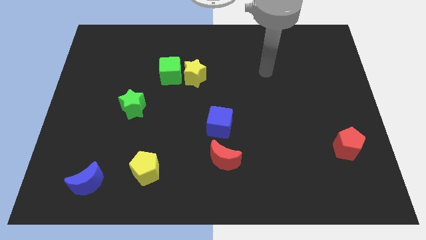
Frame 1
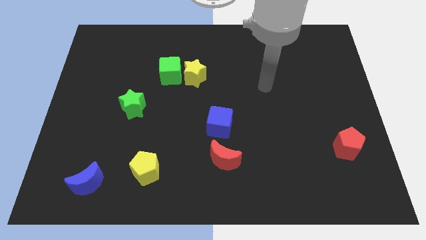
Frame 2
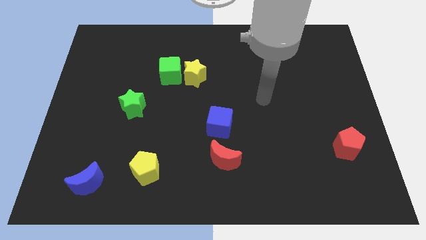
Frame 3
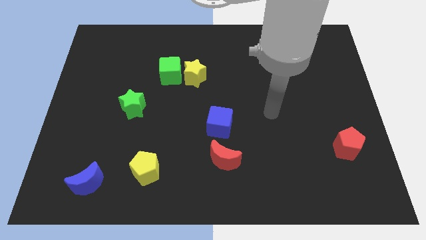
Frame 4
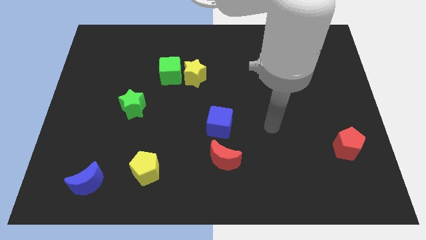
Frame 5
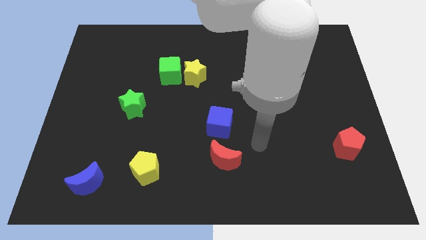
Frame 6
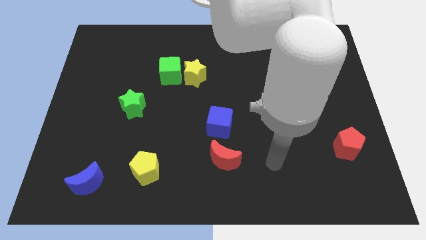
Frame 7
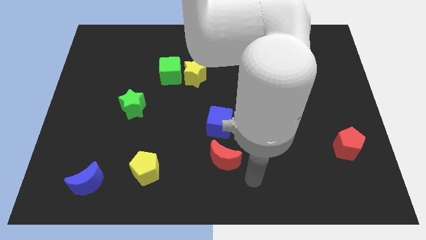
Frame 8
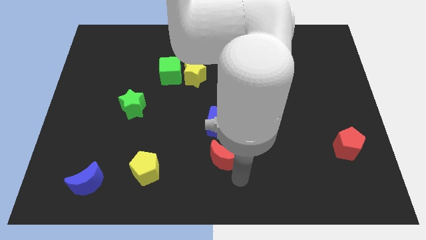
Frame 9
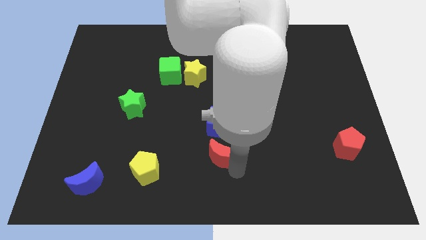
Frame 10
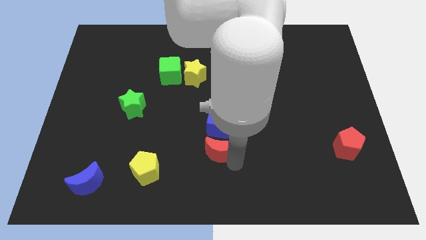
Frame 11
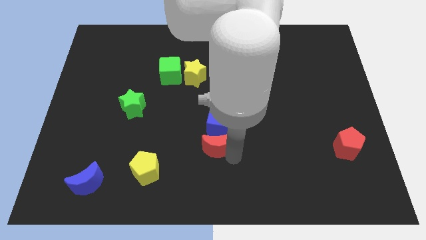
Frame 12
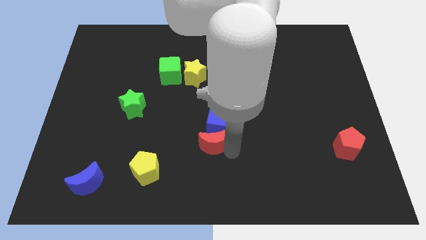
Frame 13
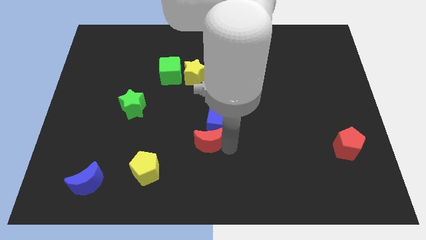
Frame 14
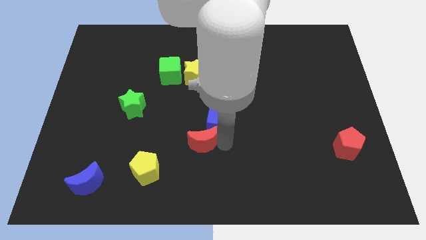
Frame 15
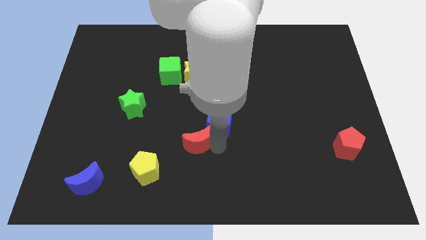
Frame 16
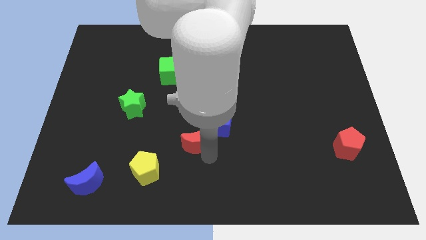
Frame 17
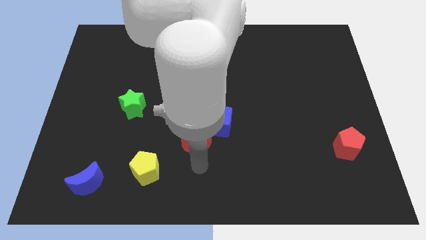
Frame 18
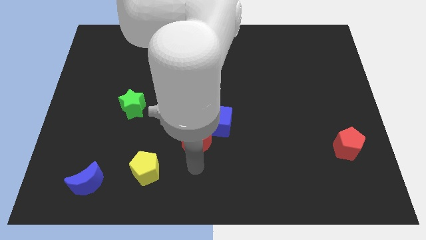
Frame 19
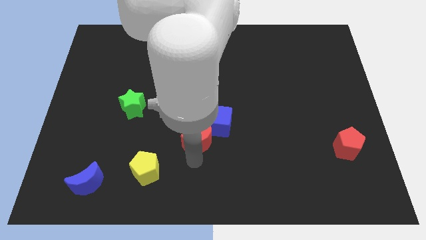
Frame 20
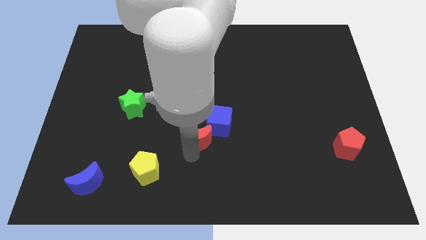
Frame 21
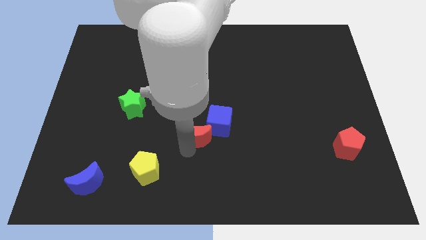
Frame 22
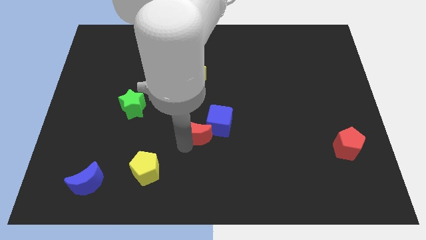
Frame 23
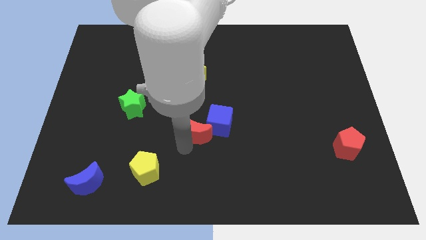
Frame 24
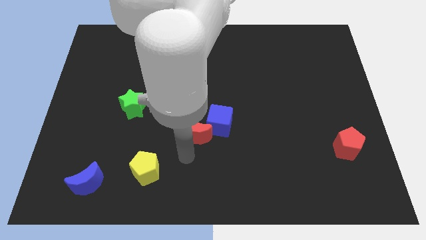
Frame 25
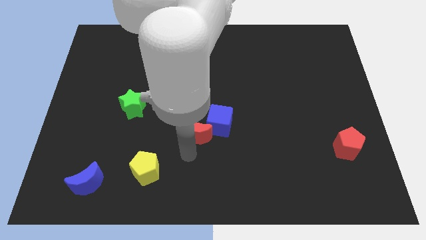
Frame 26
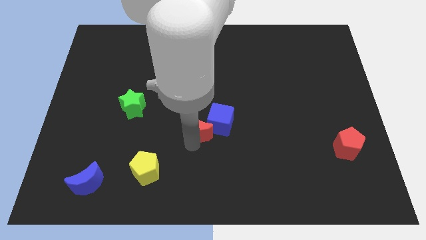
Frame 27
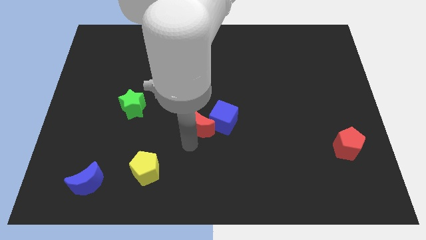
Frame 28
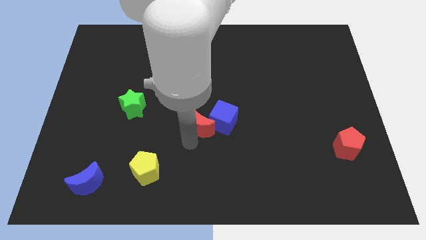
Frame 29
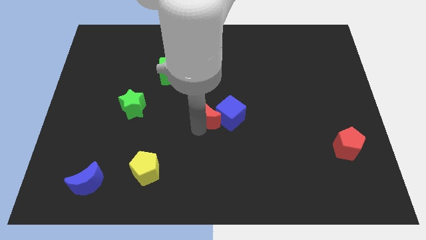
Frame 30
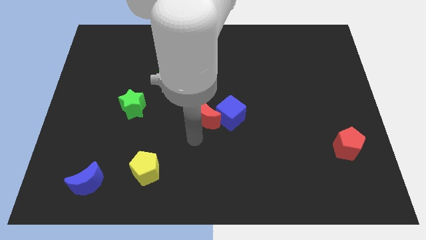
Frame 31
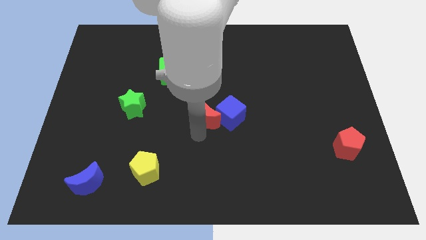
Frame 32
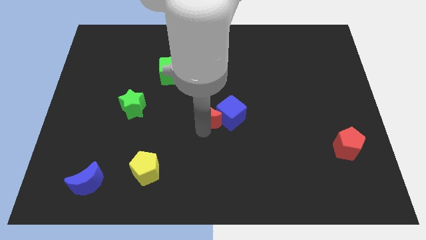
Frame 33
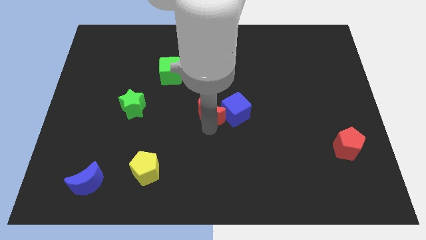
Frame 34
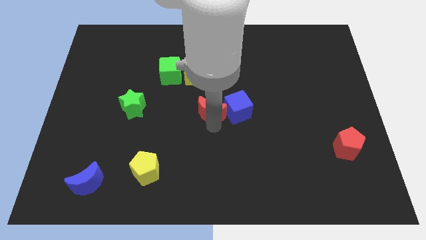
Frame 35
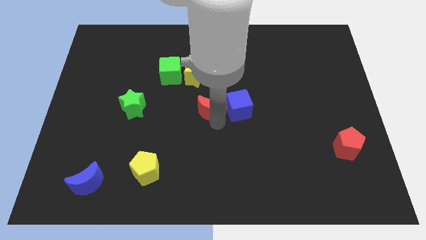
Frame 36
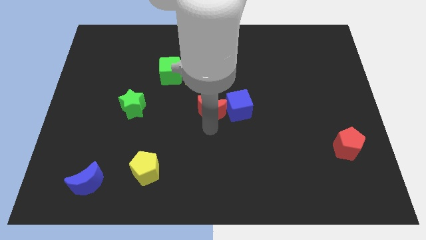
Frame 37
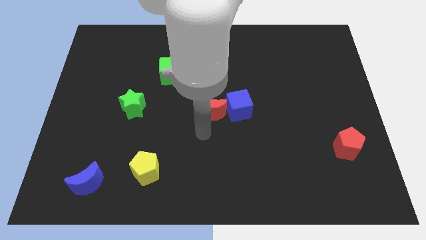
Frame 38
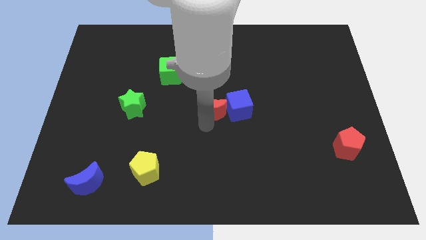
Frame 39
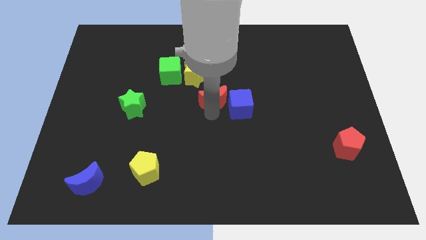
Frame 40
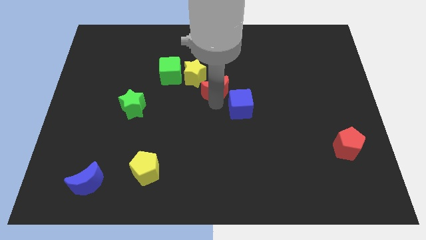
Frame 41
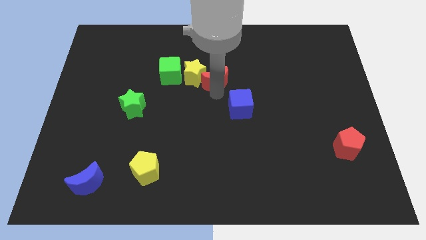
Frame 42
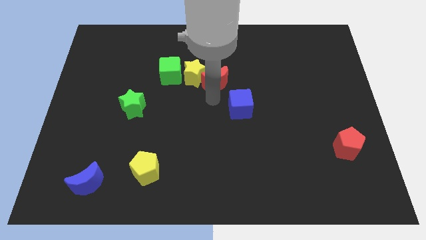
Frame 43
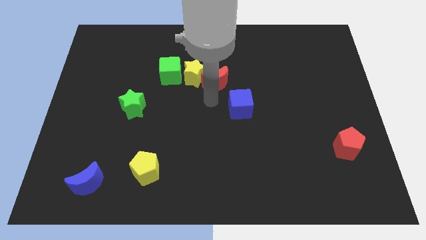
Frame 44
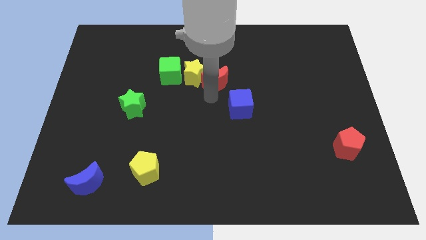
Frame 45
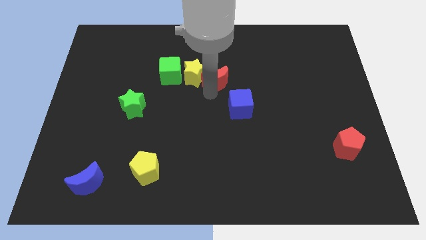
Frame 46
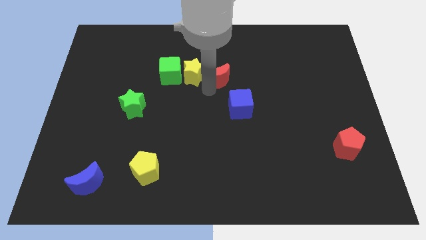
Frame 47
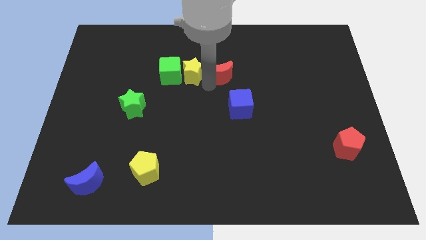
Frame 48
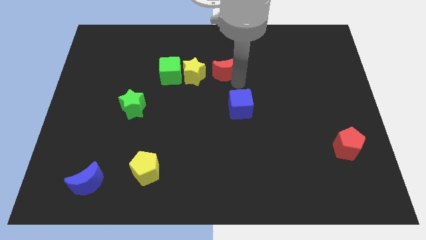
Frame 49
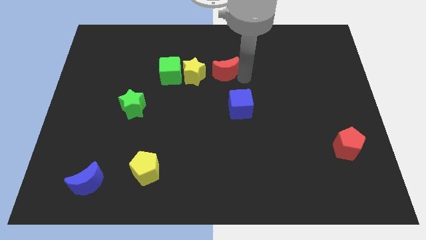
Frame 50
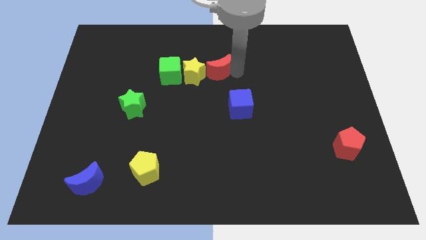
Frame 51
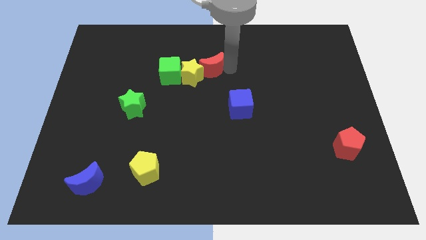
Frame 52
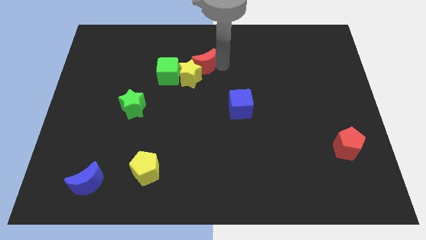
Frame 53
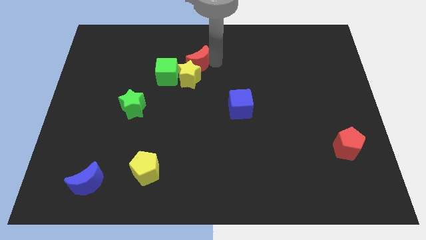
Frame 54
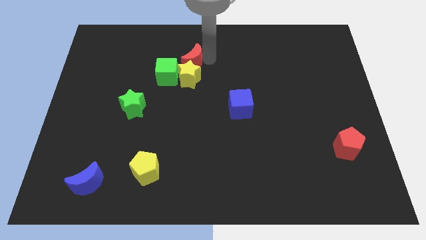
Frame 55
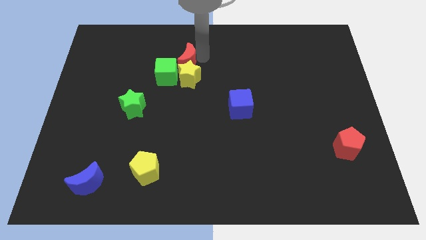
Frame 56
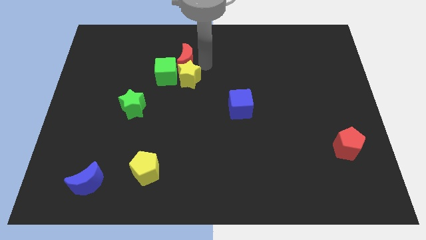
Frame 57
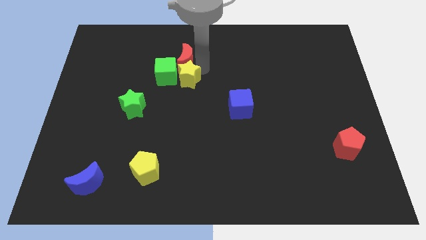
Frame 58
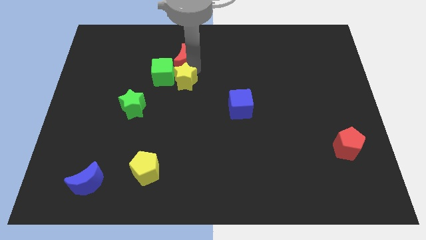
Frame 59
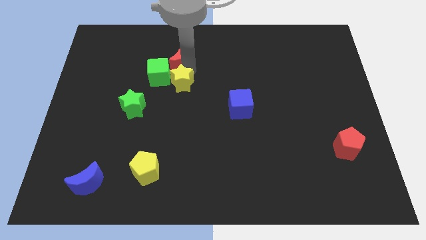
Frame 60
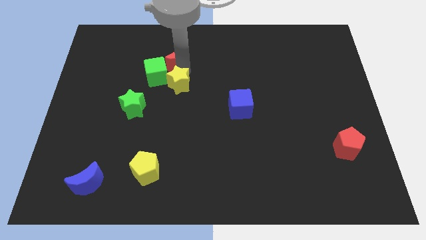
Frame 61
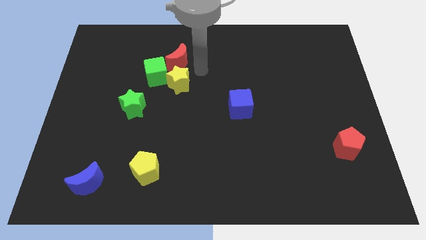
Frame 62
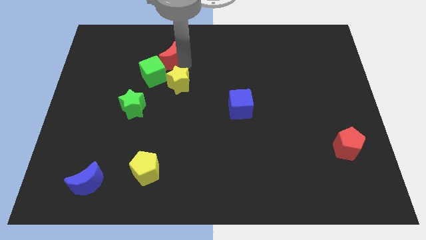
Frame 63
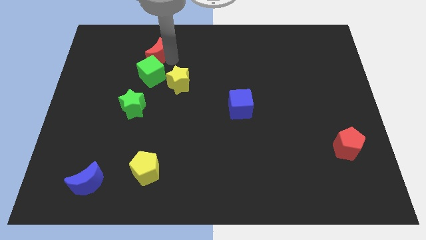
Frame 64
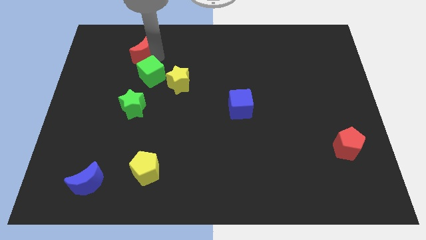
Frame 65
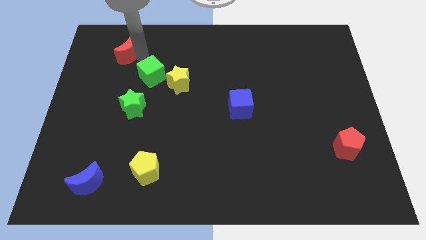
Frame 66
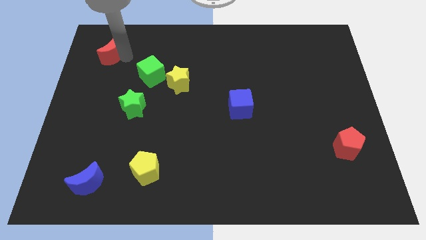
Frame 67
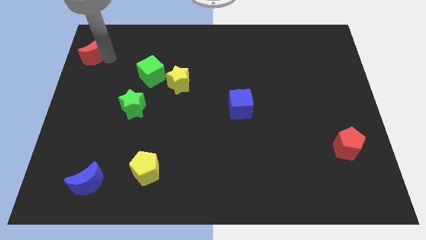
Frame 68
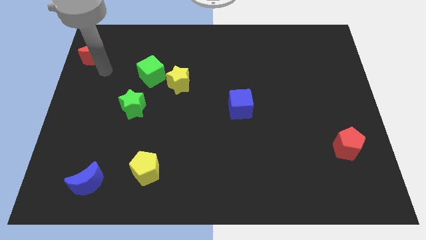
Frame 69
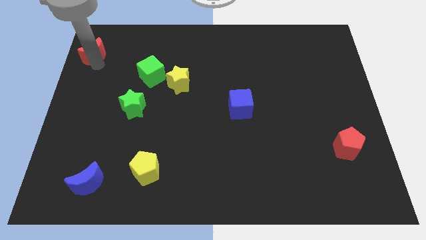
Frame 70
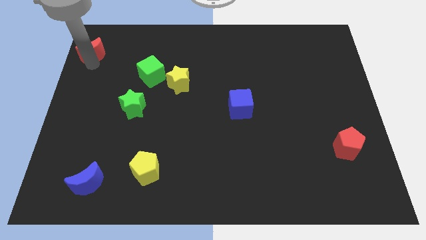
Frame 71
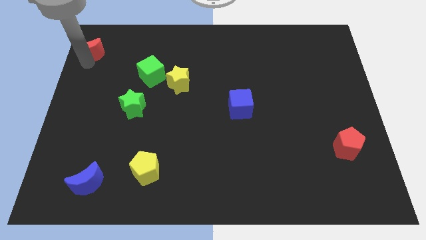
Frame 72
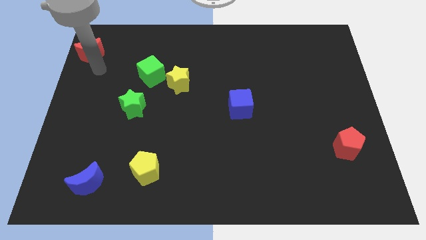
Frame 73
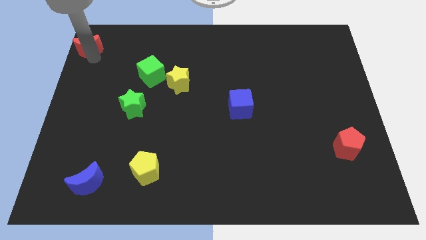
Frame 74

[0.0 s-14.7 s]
move the red moon to the top left of the board
